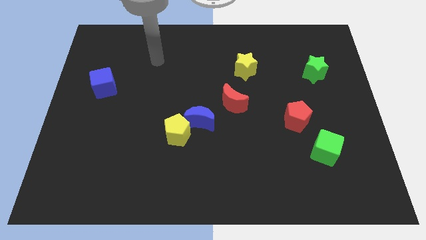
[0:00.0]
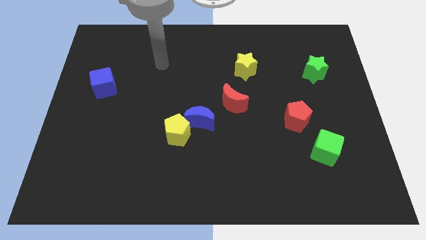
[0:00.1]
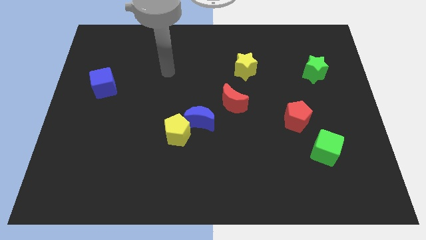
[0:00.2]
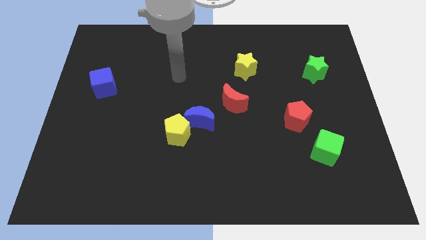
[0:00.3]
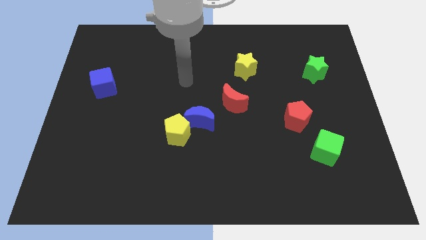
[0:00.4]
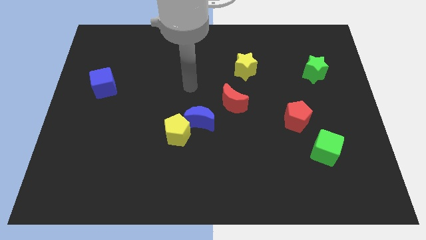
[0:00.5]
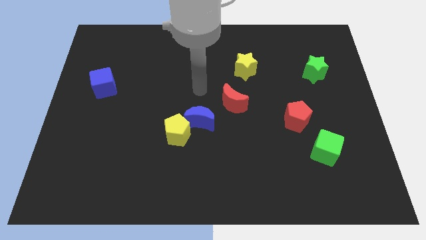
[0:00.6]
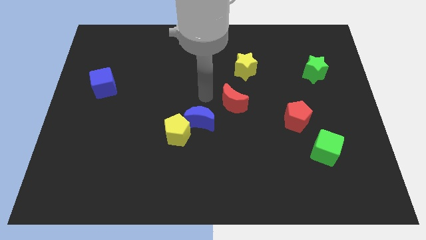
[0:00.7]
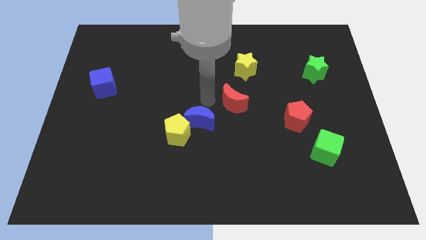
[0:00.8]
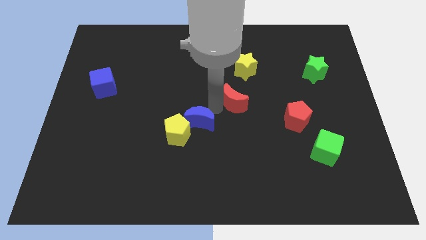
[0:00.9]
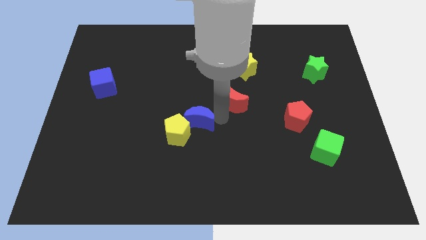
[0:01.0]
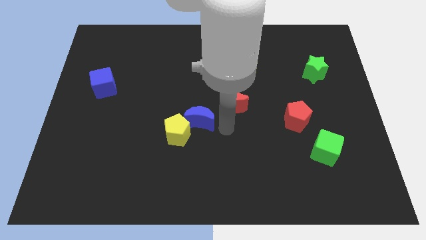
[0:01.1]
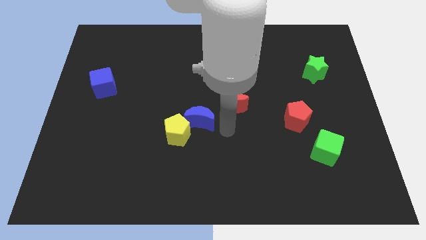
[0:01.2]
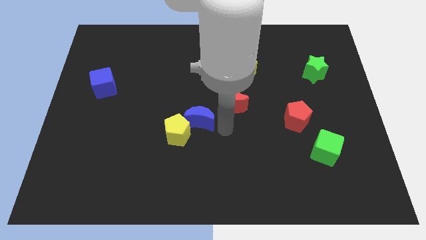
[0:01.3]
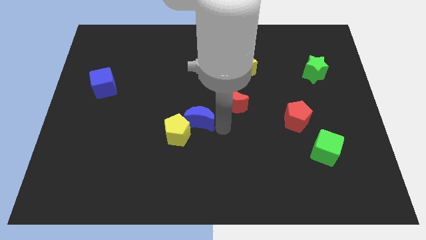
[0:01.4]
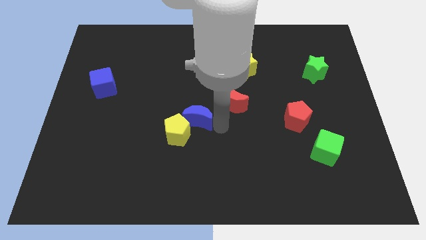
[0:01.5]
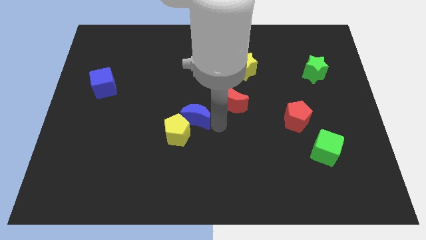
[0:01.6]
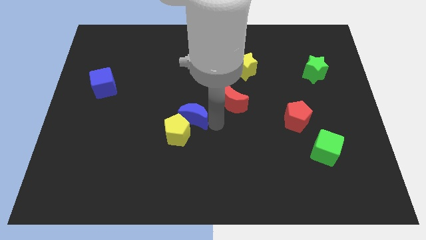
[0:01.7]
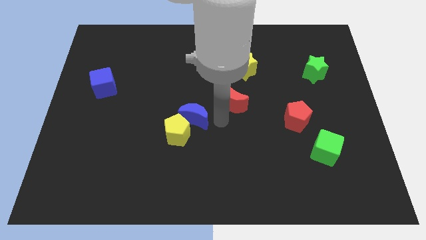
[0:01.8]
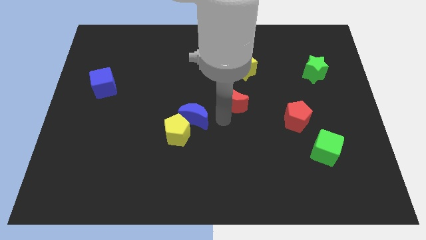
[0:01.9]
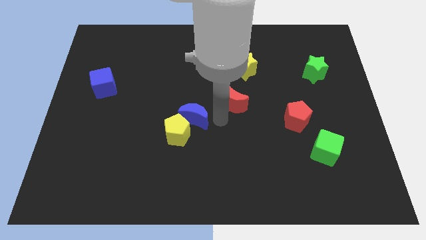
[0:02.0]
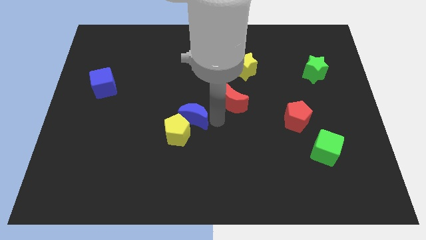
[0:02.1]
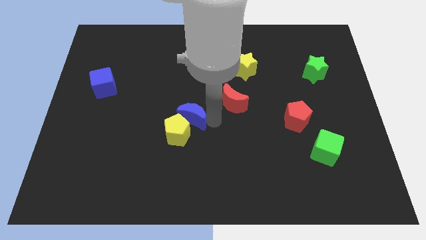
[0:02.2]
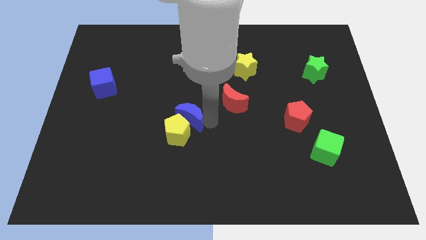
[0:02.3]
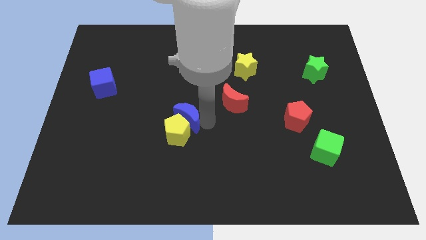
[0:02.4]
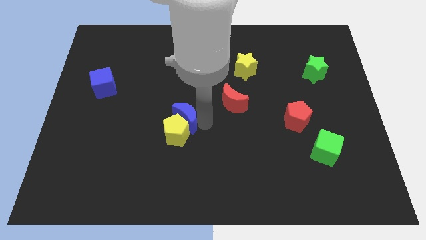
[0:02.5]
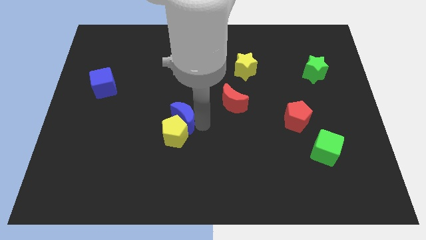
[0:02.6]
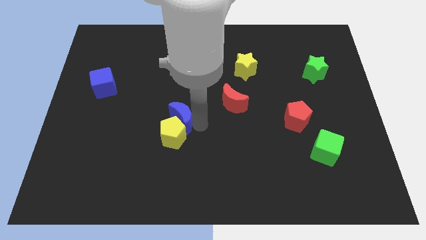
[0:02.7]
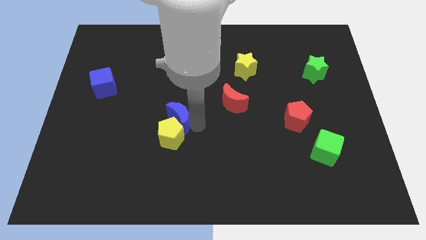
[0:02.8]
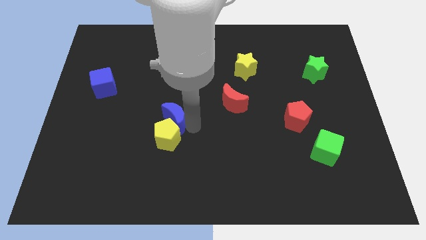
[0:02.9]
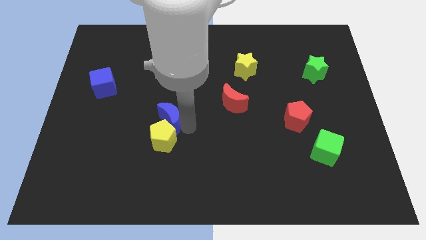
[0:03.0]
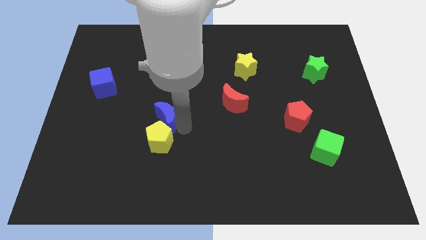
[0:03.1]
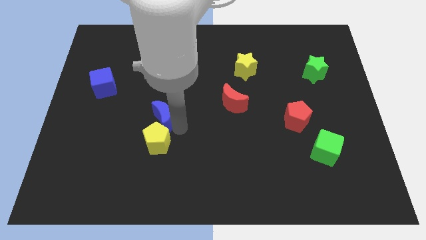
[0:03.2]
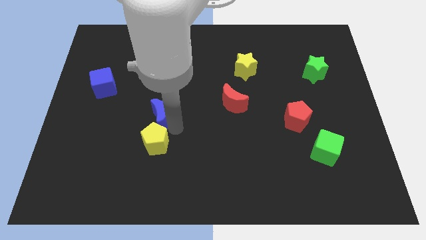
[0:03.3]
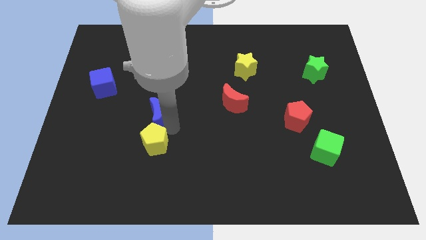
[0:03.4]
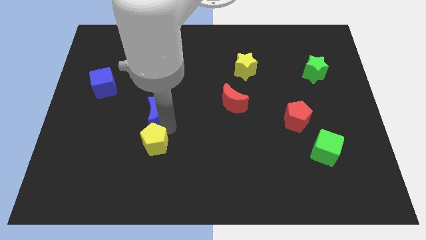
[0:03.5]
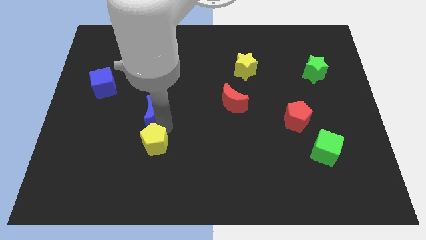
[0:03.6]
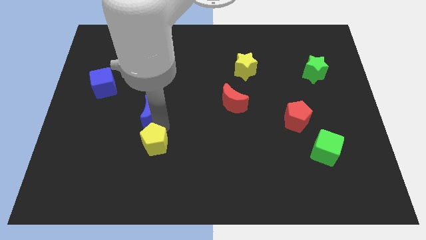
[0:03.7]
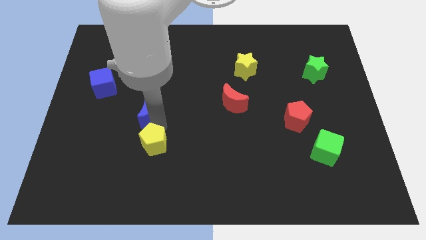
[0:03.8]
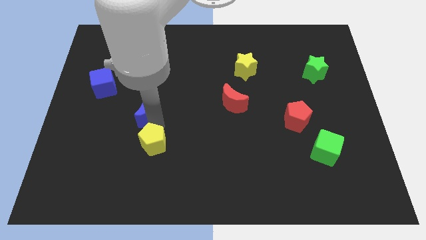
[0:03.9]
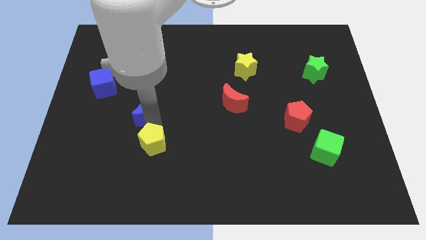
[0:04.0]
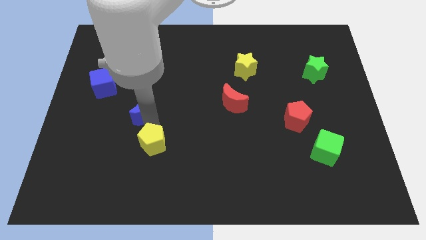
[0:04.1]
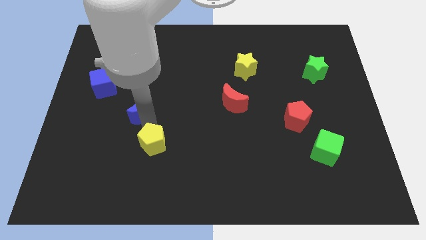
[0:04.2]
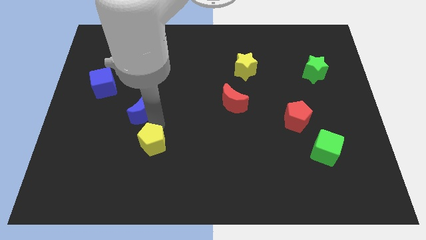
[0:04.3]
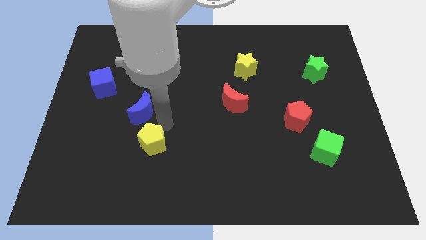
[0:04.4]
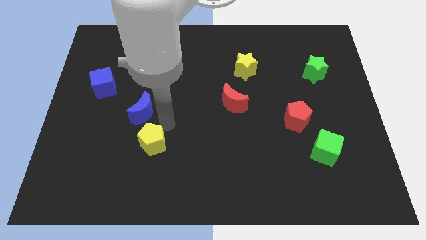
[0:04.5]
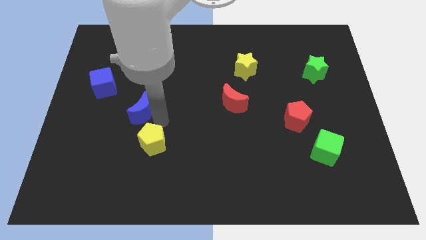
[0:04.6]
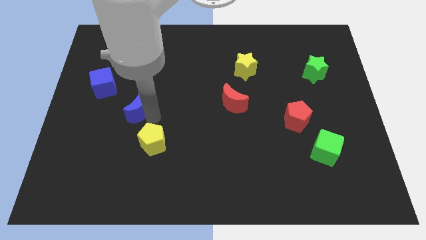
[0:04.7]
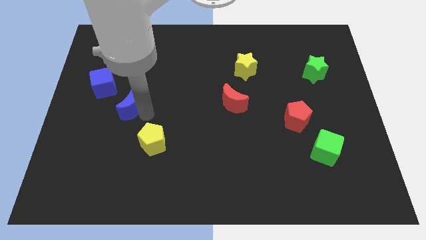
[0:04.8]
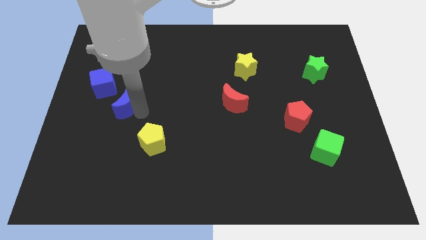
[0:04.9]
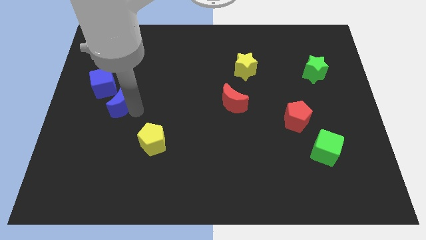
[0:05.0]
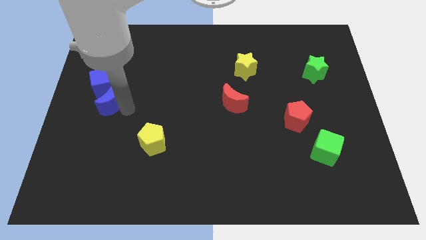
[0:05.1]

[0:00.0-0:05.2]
push the blue moon to the blue cube

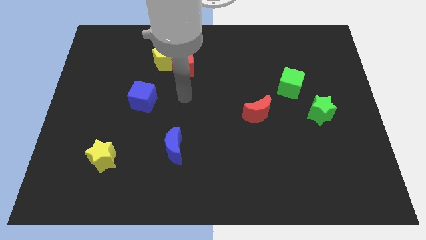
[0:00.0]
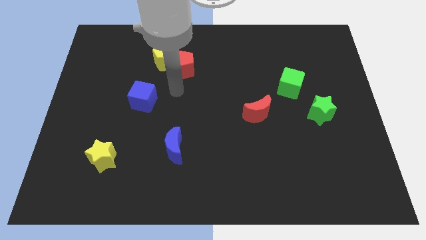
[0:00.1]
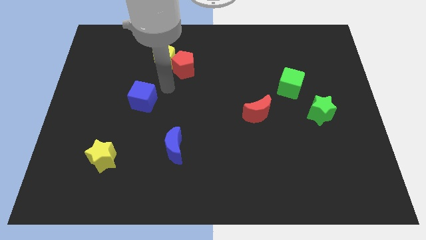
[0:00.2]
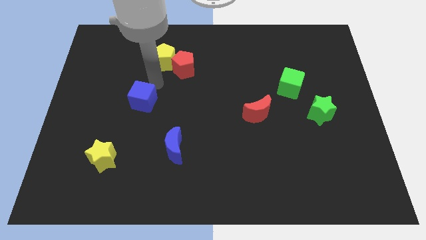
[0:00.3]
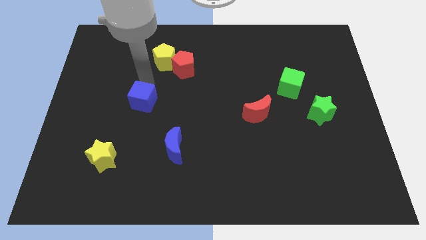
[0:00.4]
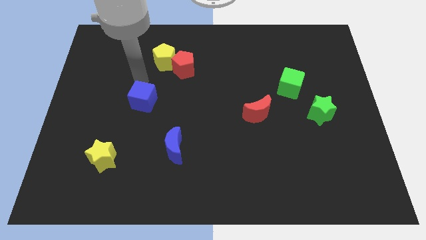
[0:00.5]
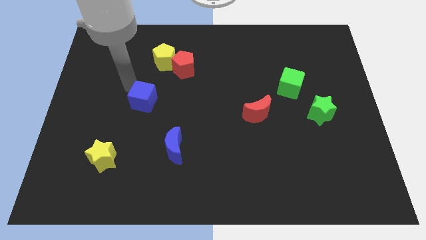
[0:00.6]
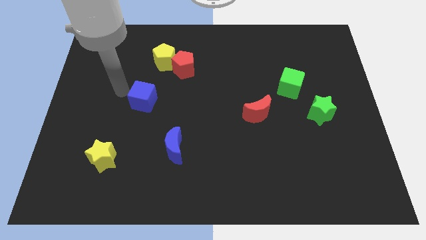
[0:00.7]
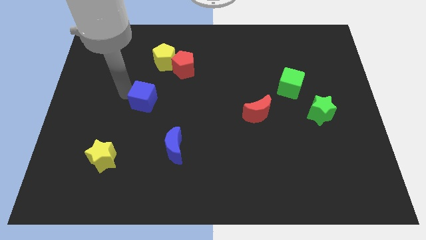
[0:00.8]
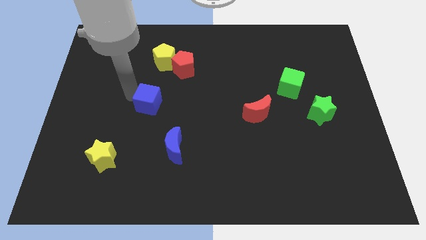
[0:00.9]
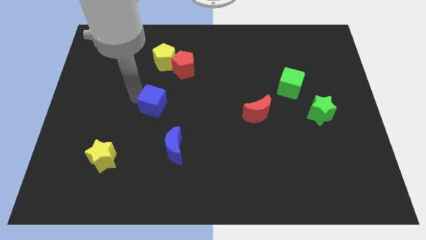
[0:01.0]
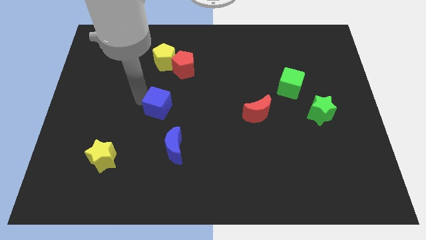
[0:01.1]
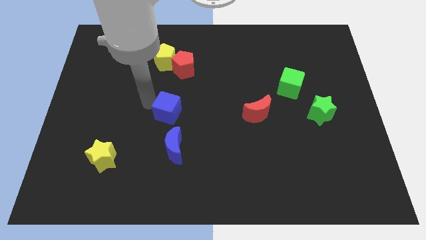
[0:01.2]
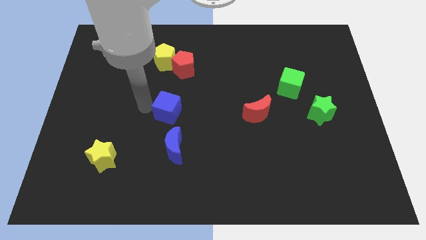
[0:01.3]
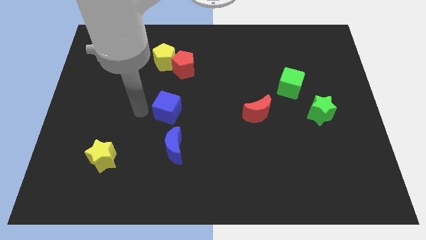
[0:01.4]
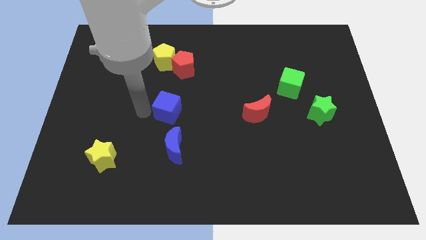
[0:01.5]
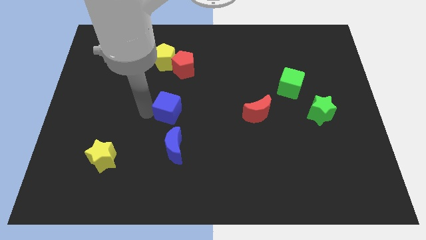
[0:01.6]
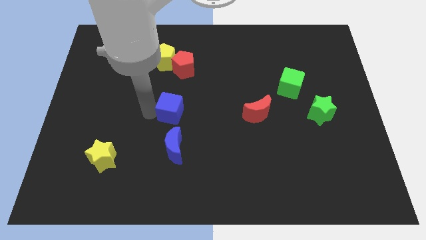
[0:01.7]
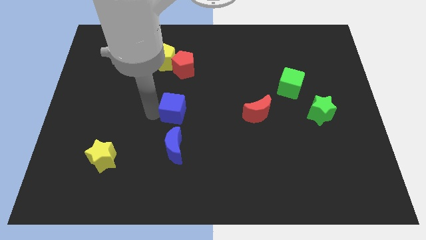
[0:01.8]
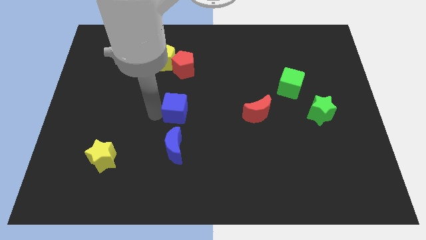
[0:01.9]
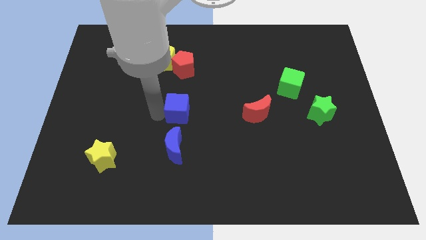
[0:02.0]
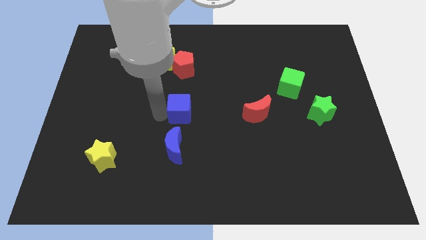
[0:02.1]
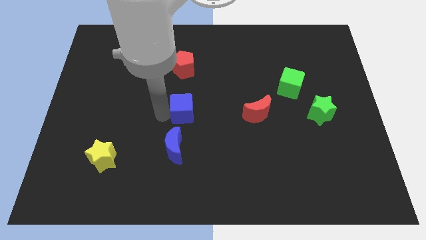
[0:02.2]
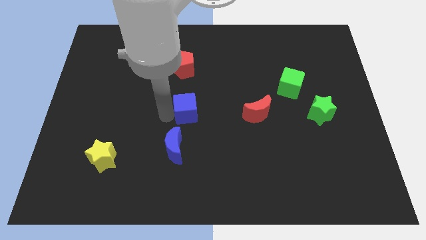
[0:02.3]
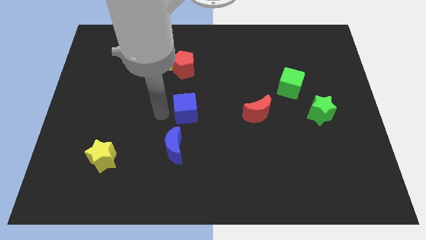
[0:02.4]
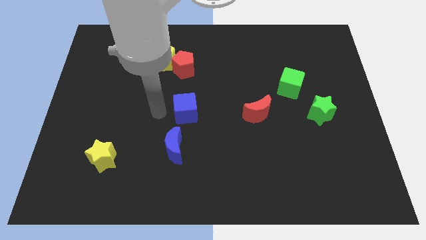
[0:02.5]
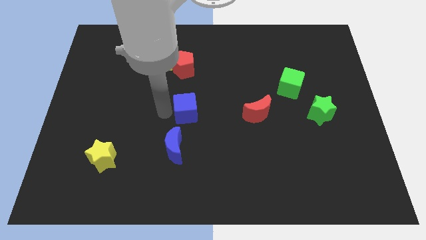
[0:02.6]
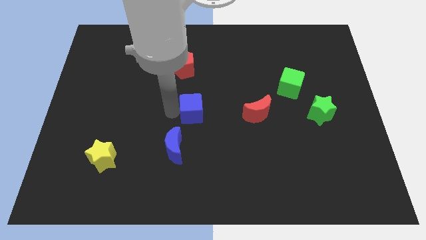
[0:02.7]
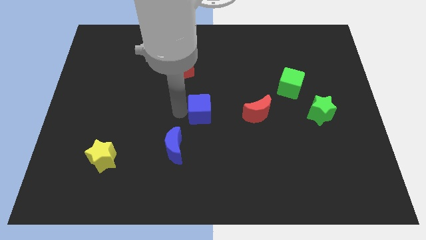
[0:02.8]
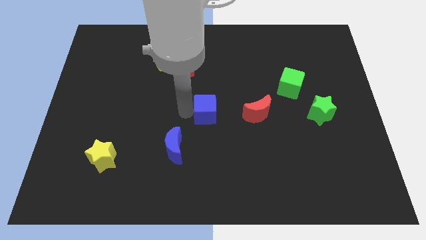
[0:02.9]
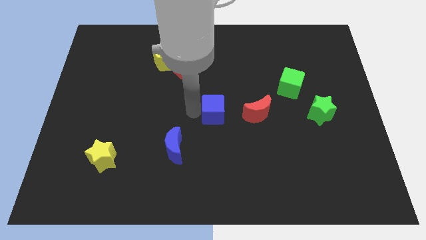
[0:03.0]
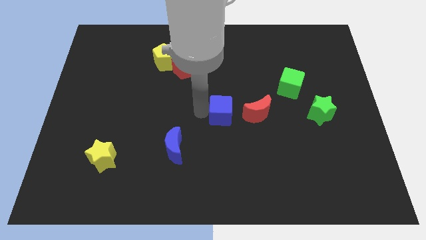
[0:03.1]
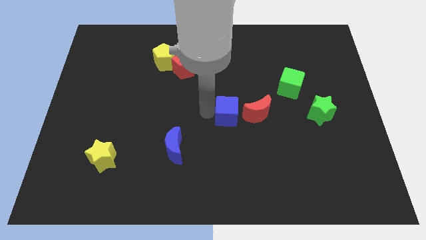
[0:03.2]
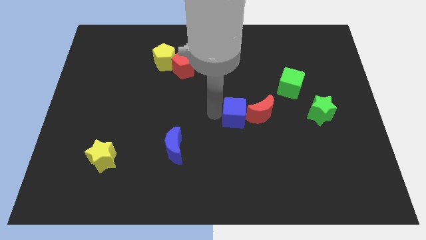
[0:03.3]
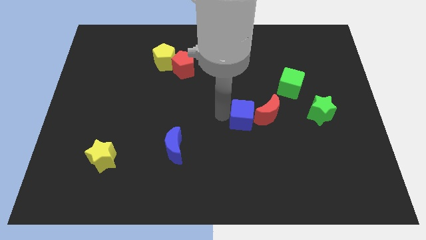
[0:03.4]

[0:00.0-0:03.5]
move the blue cube close to the red moon
